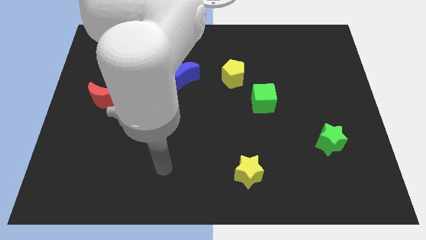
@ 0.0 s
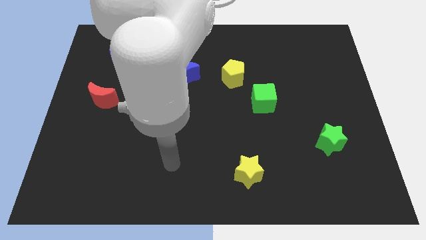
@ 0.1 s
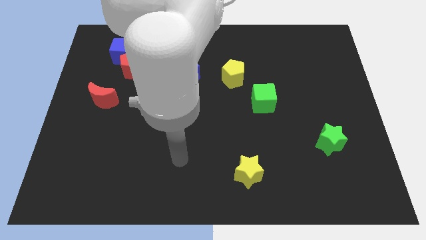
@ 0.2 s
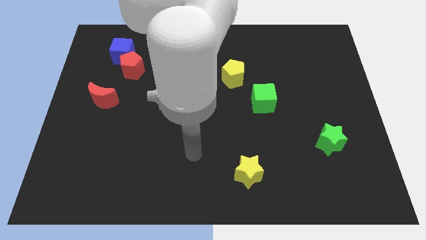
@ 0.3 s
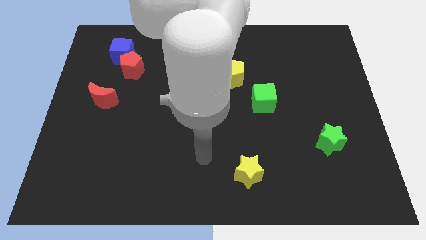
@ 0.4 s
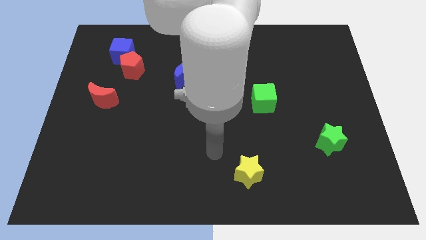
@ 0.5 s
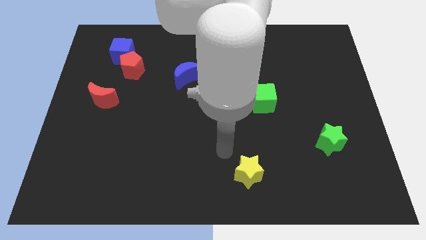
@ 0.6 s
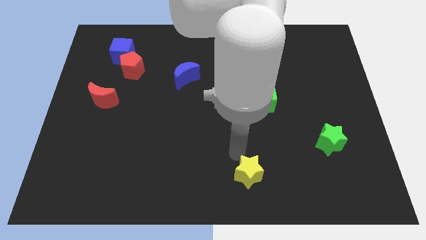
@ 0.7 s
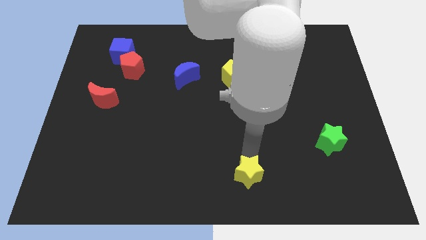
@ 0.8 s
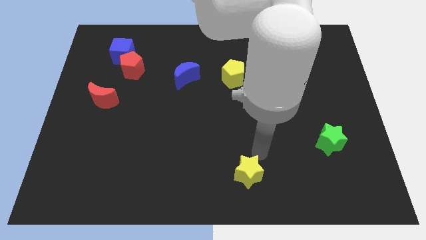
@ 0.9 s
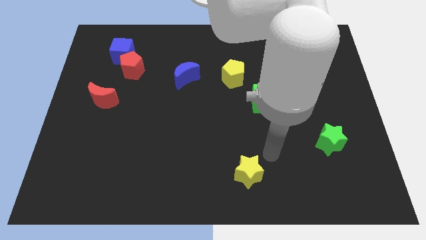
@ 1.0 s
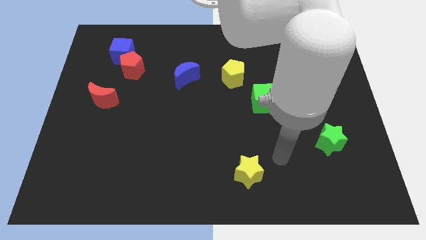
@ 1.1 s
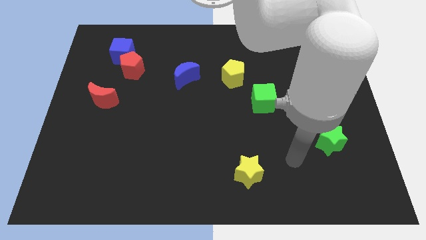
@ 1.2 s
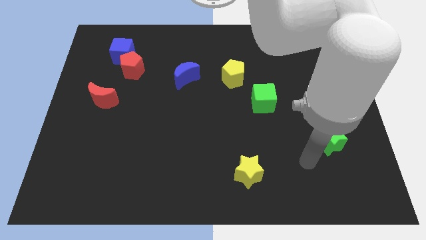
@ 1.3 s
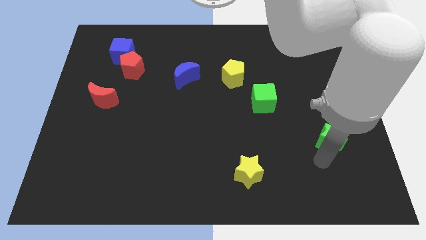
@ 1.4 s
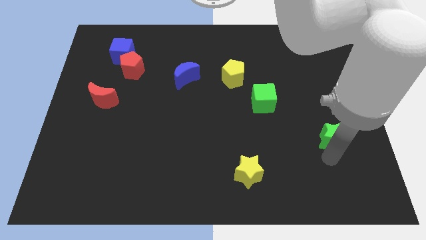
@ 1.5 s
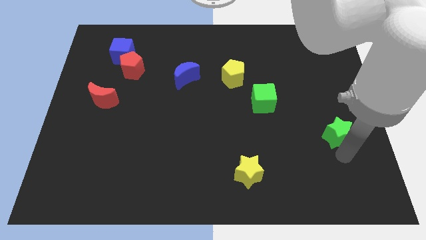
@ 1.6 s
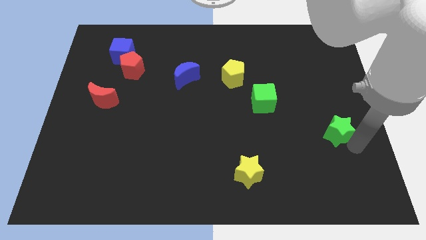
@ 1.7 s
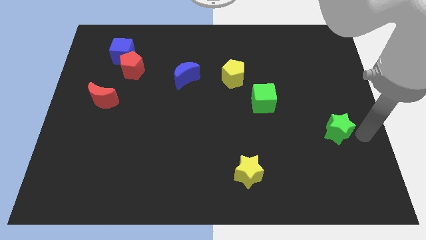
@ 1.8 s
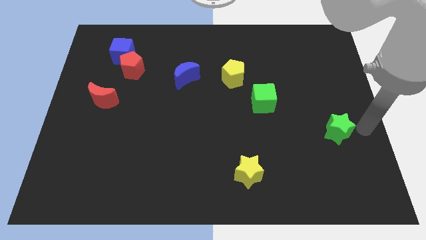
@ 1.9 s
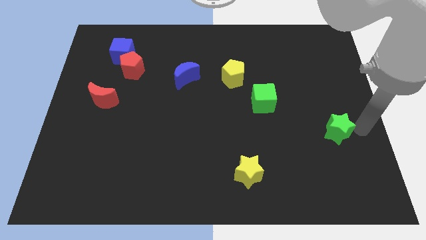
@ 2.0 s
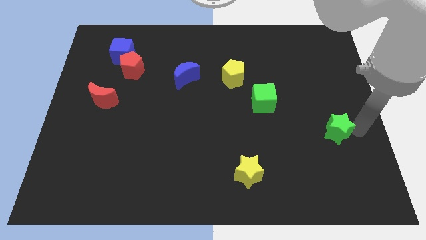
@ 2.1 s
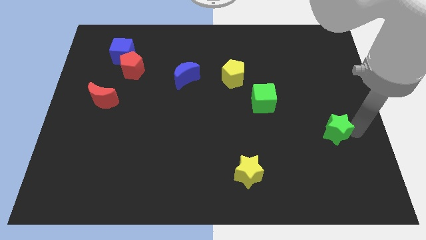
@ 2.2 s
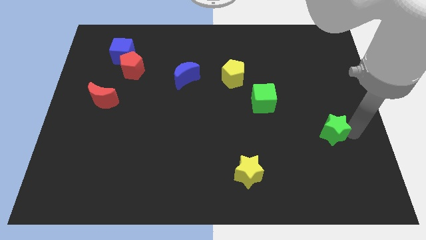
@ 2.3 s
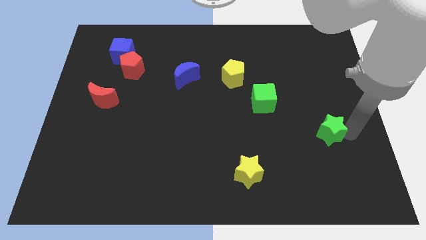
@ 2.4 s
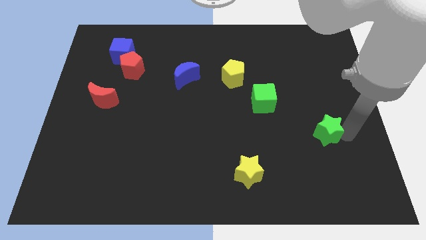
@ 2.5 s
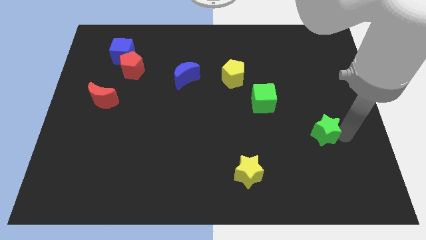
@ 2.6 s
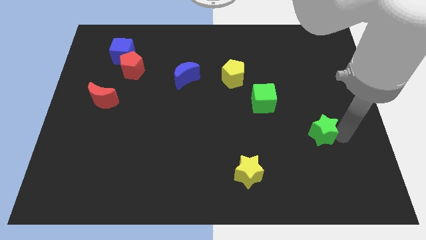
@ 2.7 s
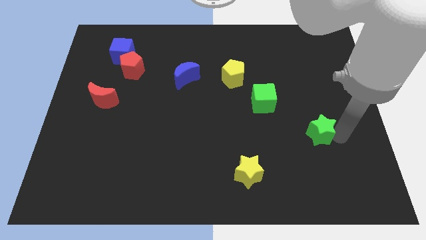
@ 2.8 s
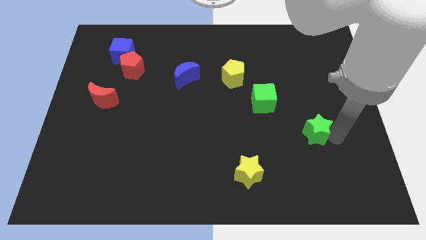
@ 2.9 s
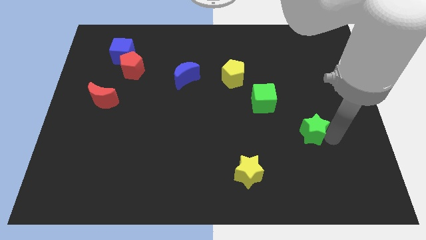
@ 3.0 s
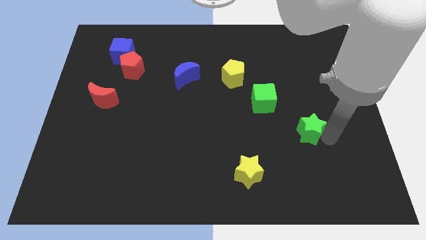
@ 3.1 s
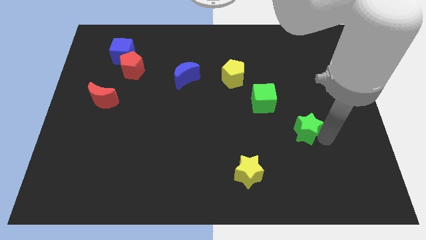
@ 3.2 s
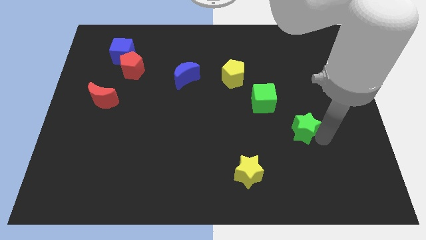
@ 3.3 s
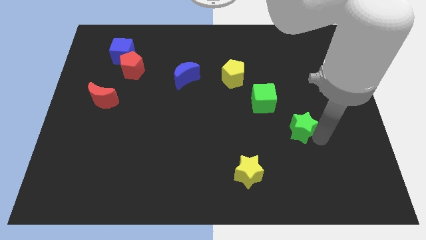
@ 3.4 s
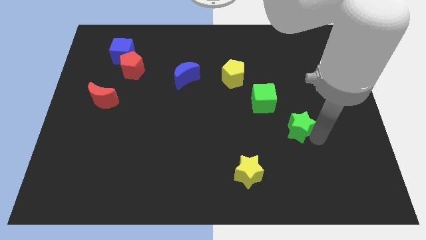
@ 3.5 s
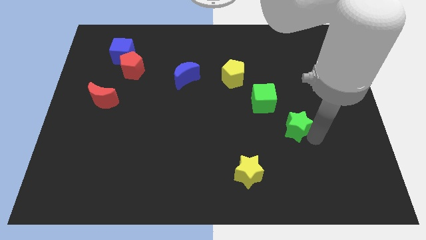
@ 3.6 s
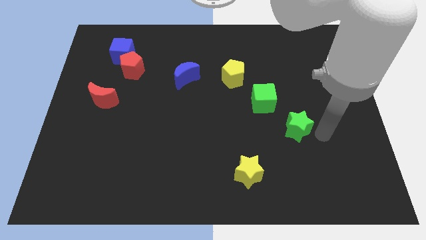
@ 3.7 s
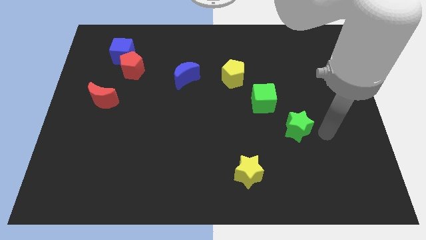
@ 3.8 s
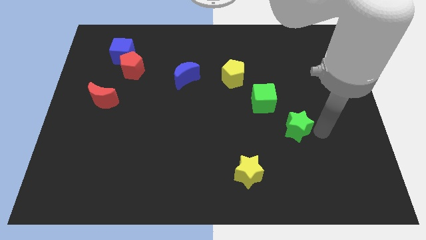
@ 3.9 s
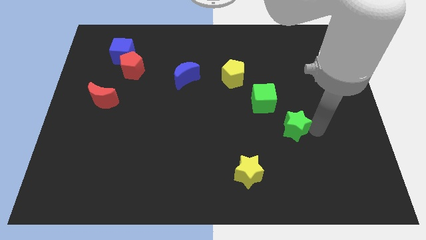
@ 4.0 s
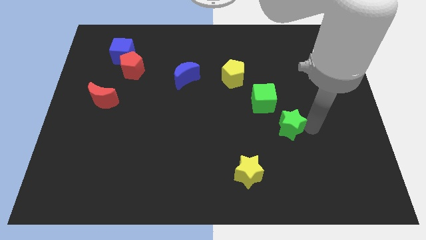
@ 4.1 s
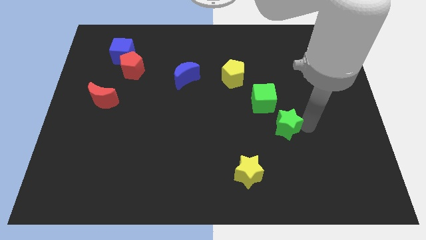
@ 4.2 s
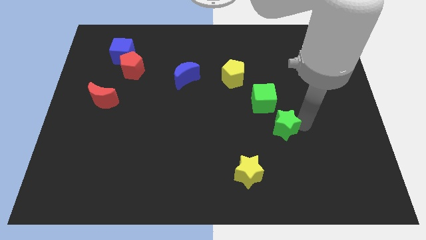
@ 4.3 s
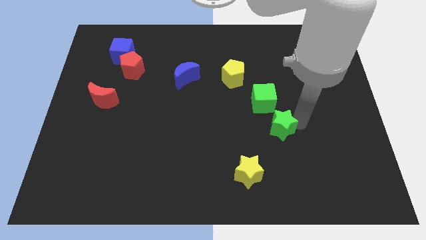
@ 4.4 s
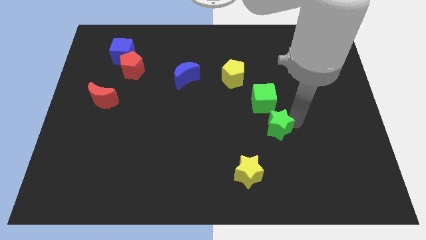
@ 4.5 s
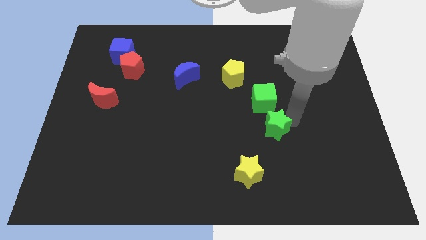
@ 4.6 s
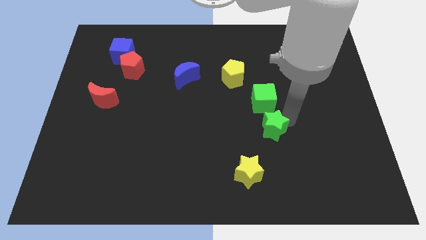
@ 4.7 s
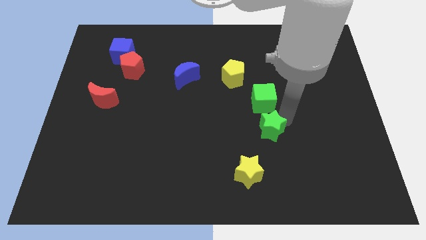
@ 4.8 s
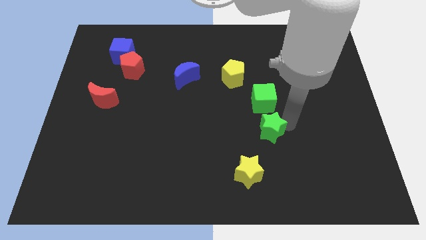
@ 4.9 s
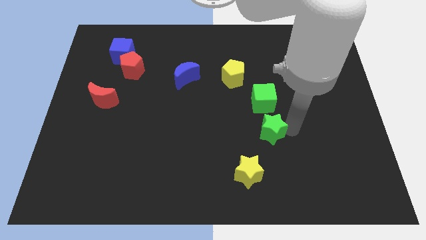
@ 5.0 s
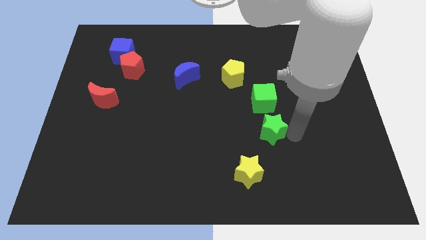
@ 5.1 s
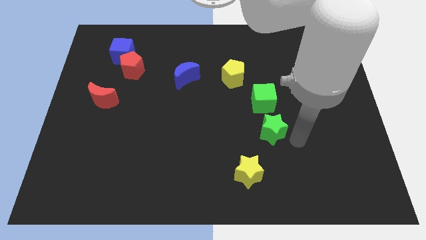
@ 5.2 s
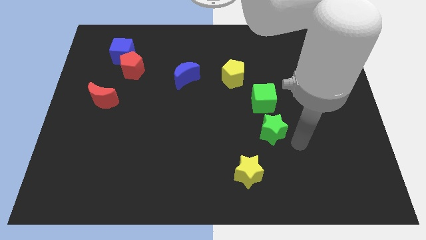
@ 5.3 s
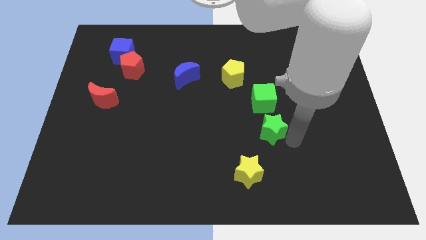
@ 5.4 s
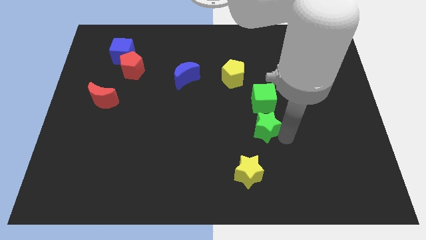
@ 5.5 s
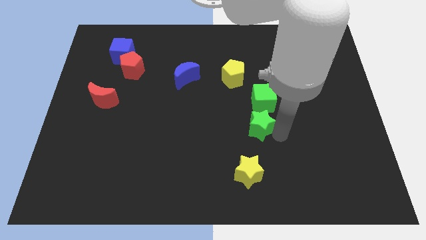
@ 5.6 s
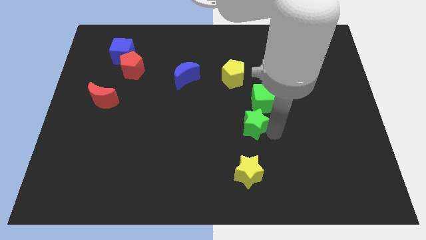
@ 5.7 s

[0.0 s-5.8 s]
move the green star to the middle of the board

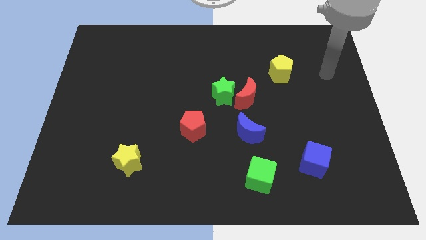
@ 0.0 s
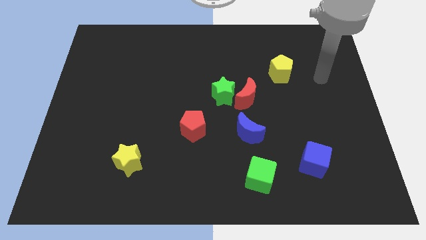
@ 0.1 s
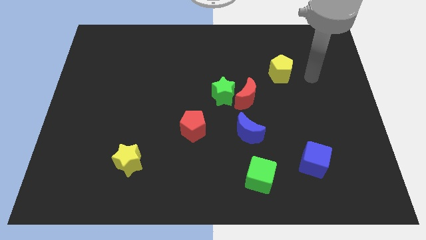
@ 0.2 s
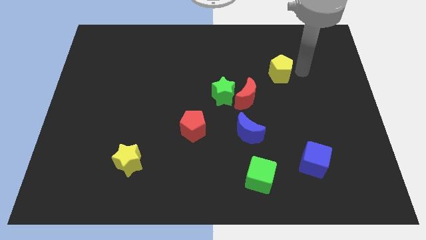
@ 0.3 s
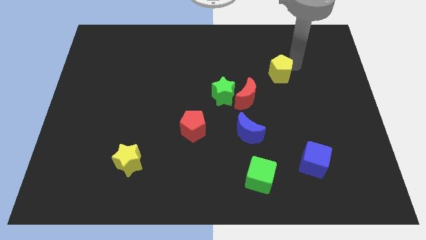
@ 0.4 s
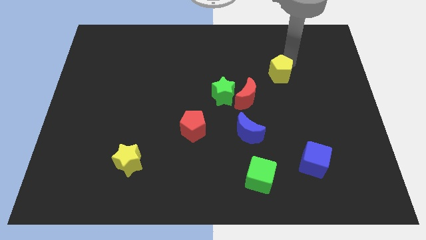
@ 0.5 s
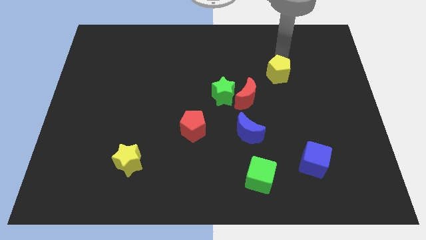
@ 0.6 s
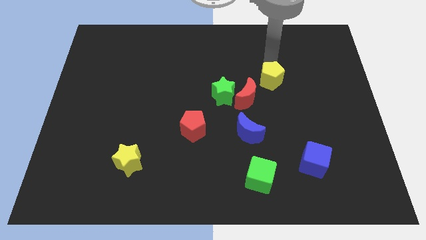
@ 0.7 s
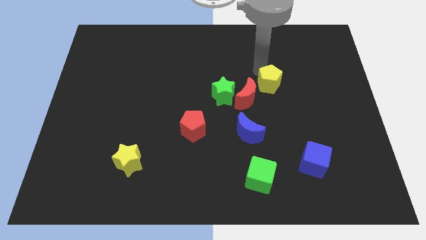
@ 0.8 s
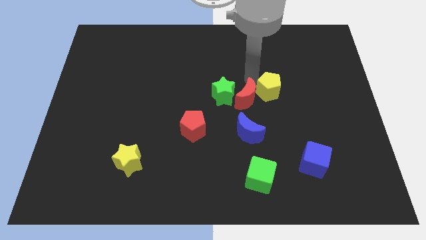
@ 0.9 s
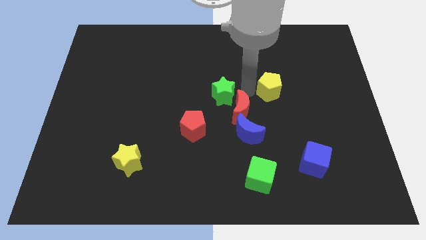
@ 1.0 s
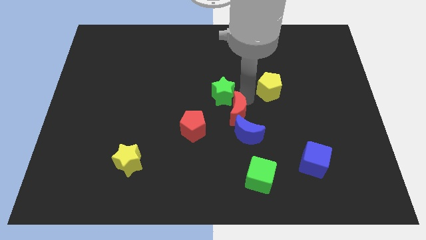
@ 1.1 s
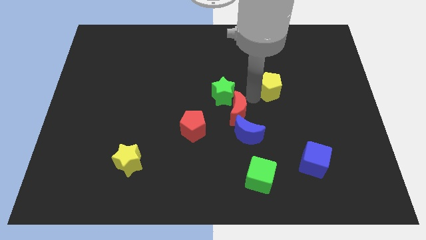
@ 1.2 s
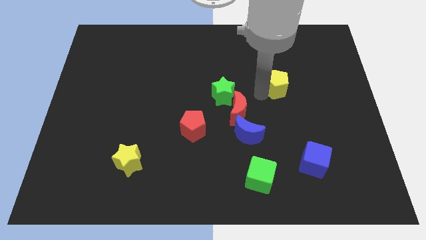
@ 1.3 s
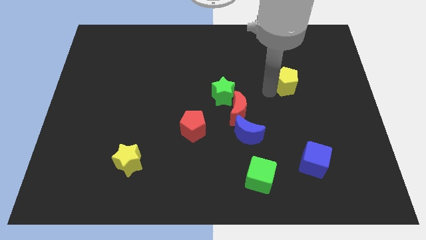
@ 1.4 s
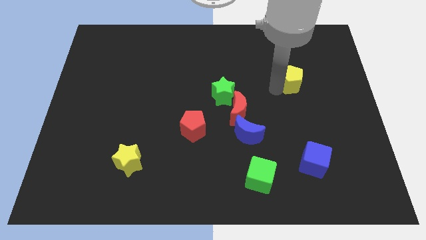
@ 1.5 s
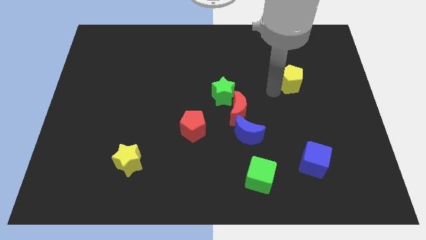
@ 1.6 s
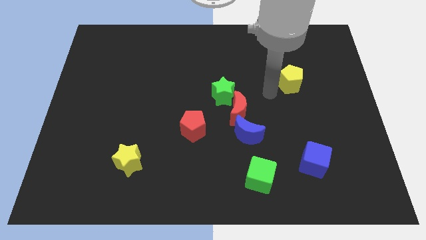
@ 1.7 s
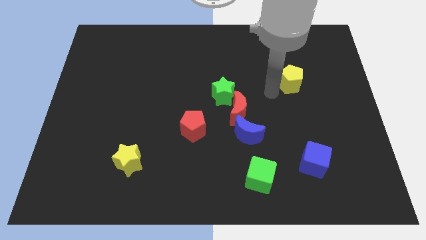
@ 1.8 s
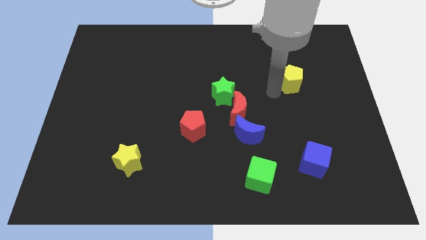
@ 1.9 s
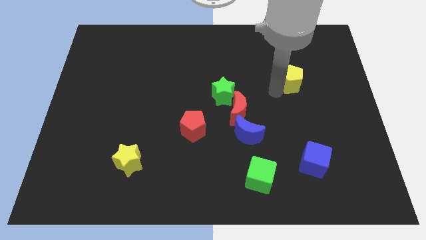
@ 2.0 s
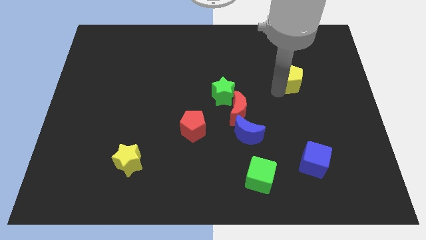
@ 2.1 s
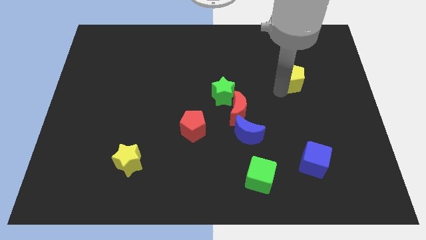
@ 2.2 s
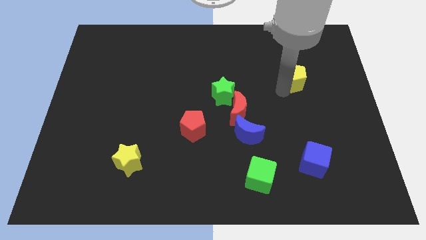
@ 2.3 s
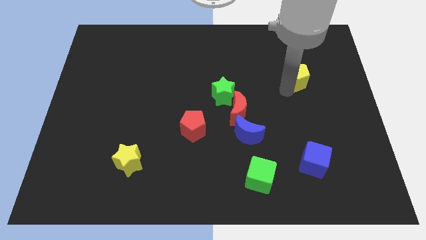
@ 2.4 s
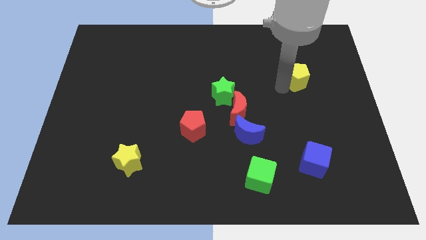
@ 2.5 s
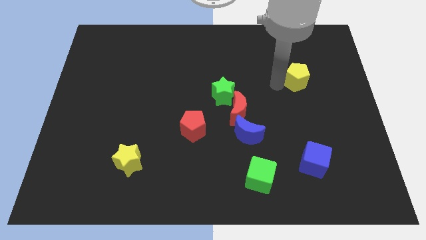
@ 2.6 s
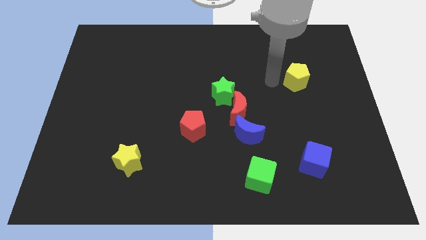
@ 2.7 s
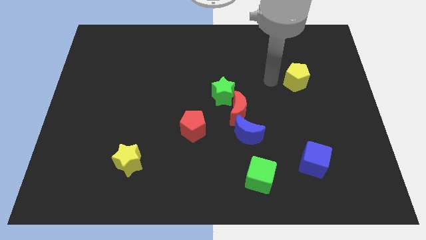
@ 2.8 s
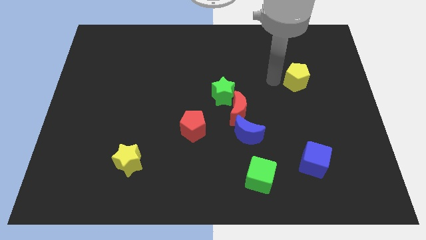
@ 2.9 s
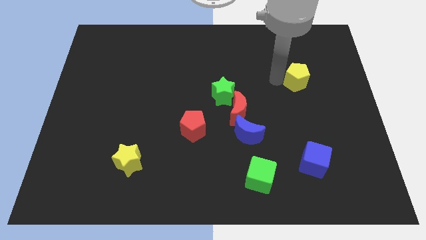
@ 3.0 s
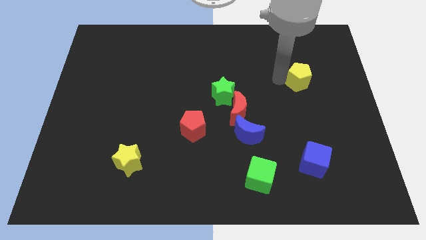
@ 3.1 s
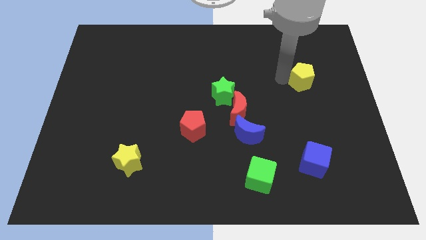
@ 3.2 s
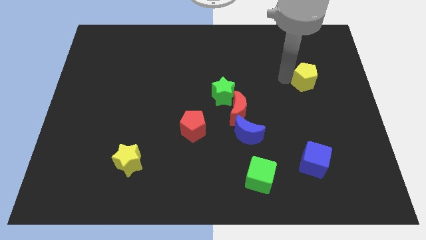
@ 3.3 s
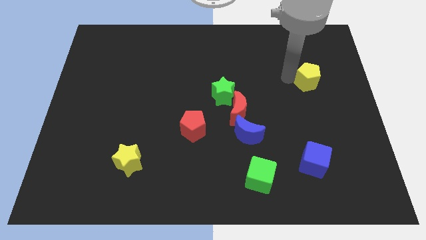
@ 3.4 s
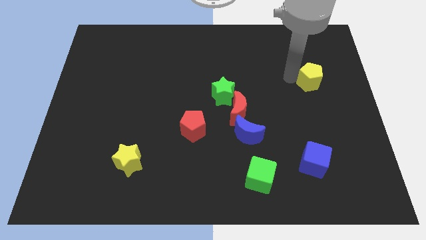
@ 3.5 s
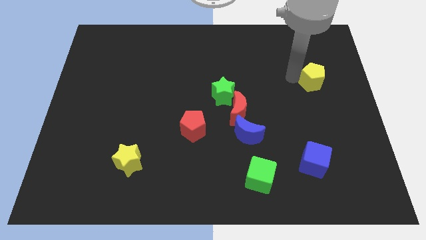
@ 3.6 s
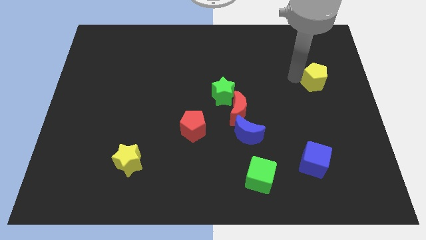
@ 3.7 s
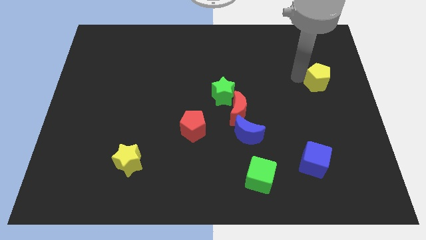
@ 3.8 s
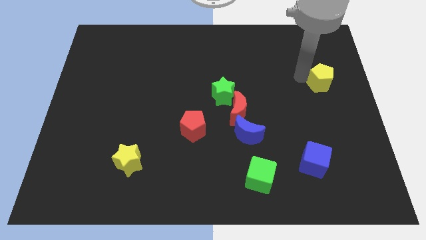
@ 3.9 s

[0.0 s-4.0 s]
slide the yellow pentagon to the right side of the board
